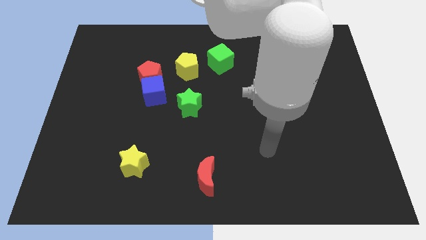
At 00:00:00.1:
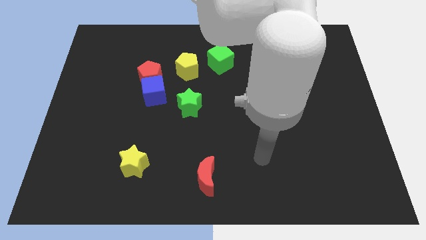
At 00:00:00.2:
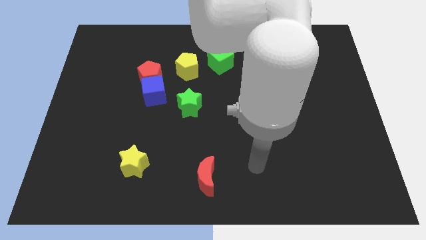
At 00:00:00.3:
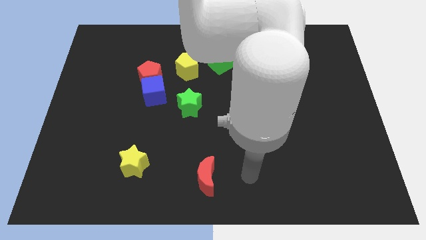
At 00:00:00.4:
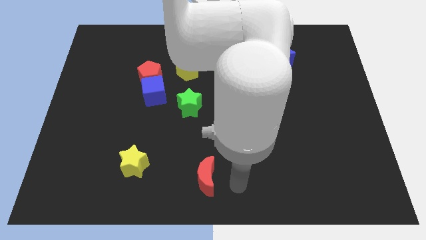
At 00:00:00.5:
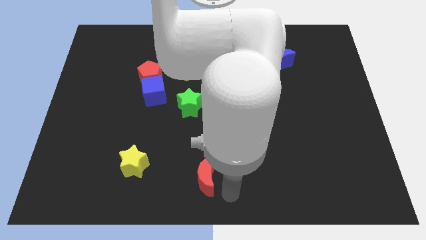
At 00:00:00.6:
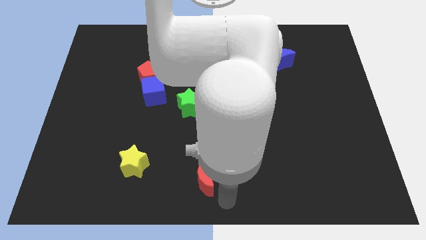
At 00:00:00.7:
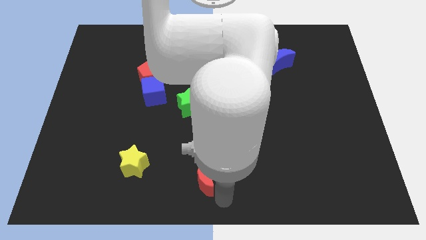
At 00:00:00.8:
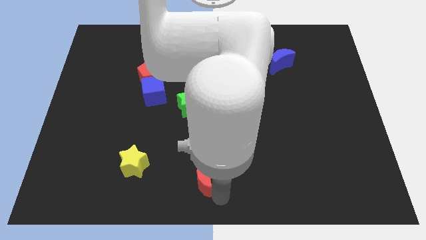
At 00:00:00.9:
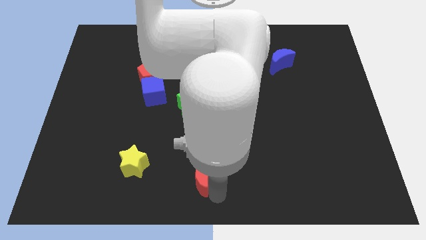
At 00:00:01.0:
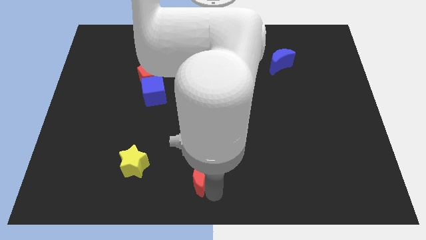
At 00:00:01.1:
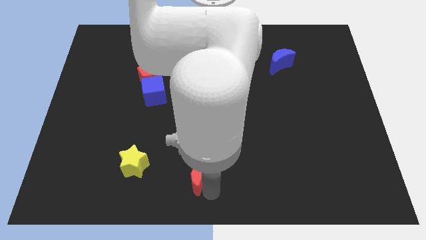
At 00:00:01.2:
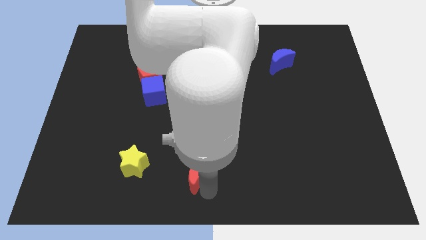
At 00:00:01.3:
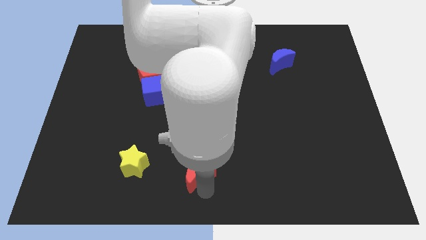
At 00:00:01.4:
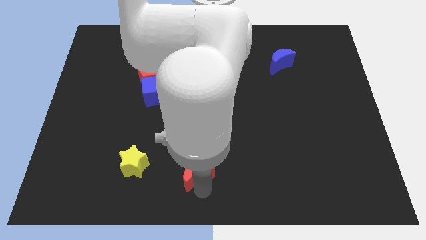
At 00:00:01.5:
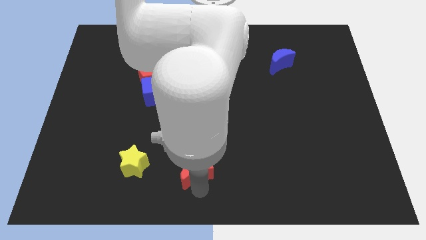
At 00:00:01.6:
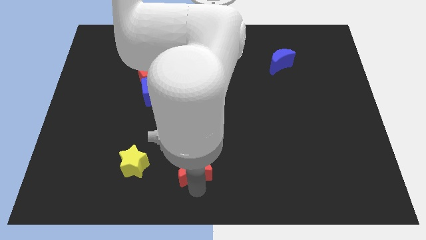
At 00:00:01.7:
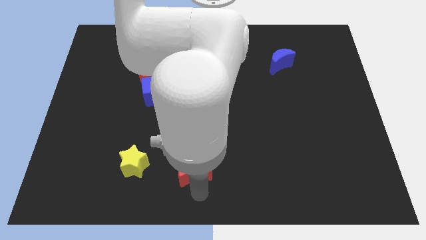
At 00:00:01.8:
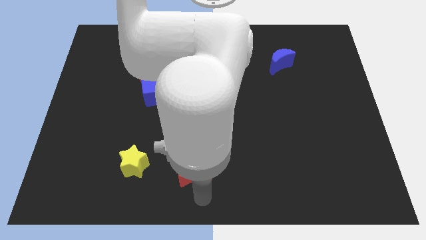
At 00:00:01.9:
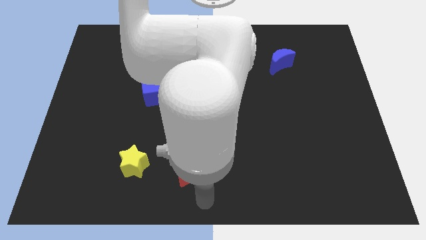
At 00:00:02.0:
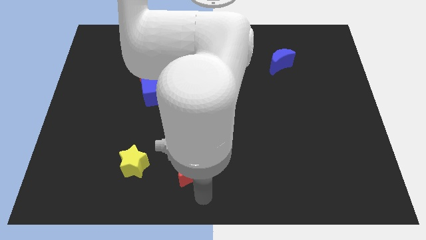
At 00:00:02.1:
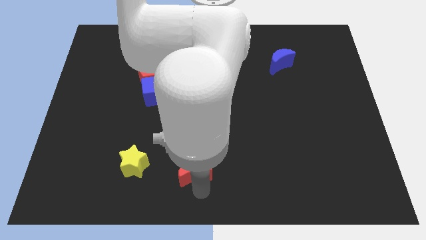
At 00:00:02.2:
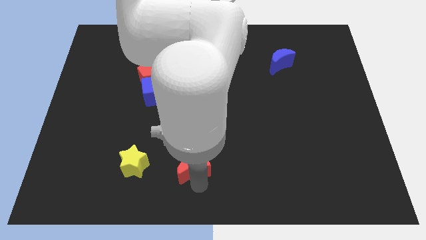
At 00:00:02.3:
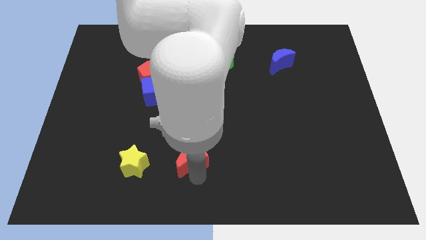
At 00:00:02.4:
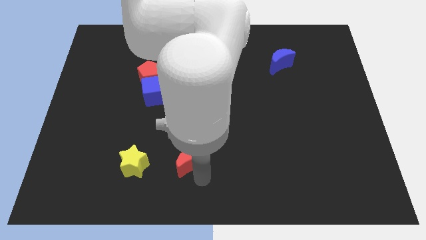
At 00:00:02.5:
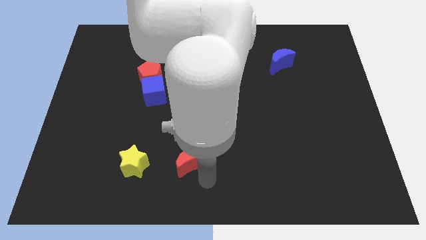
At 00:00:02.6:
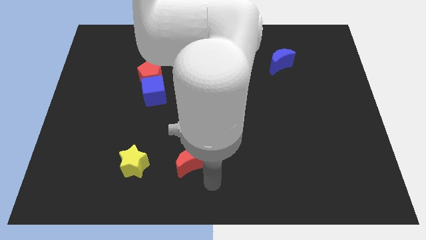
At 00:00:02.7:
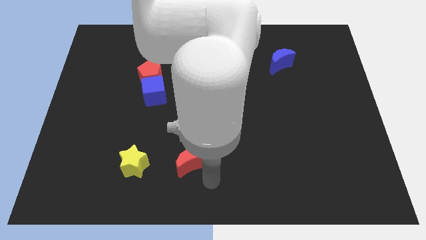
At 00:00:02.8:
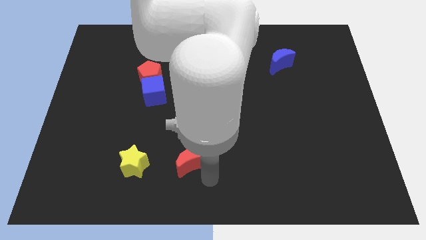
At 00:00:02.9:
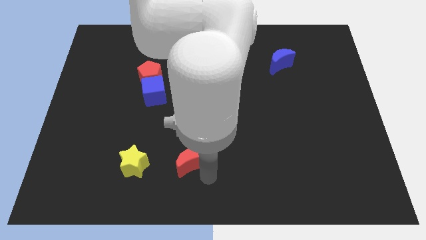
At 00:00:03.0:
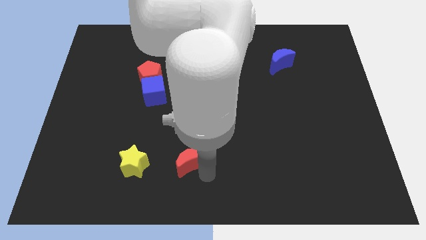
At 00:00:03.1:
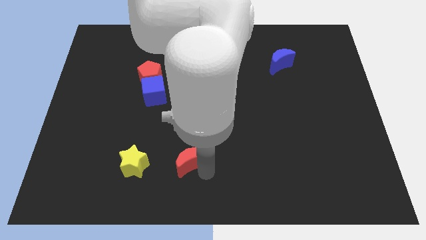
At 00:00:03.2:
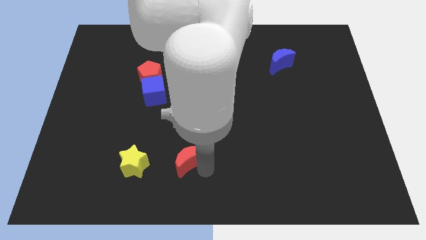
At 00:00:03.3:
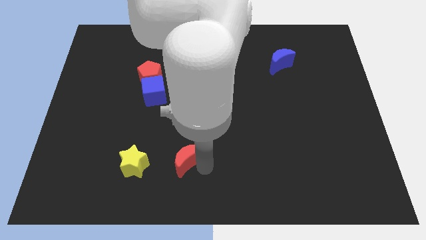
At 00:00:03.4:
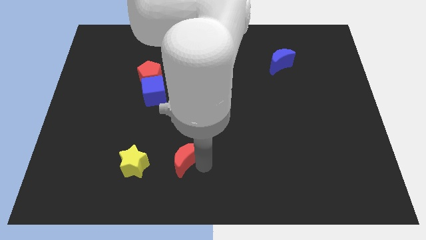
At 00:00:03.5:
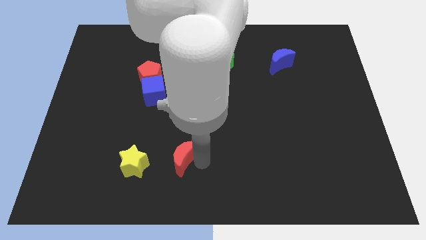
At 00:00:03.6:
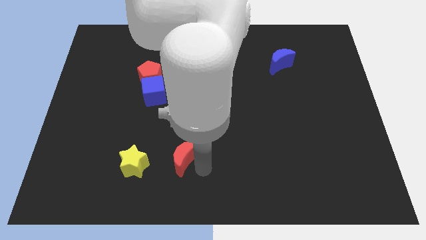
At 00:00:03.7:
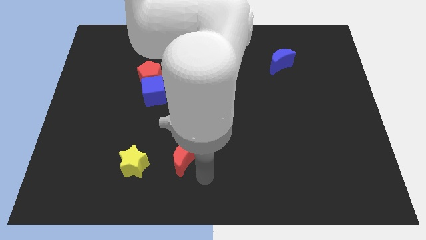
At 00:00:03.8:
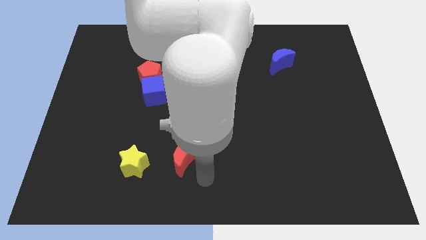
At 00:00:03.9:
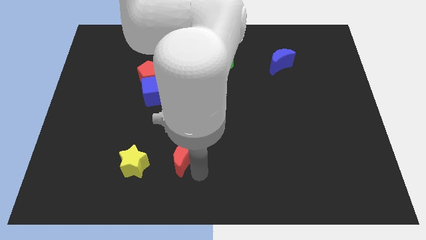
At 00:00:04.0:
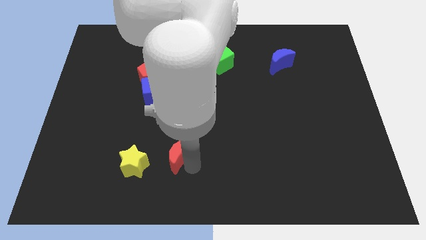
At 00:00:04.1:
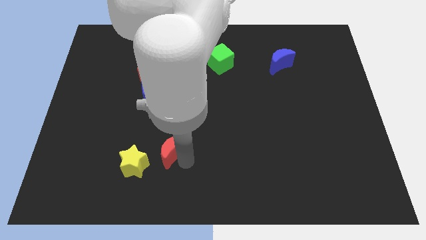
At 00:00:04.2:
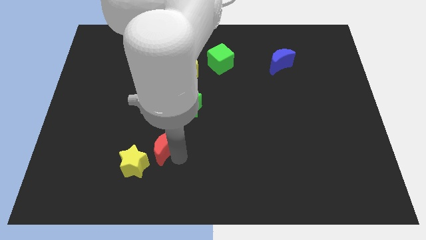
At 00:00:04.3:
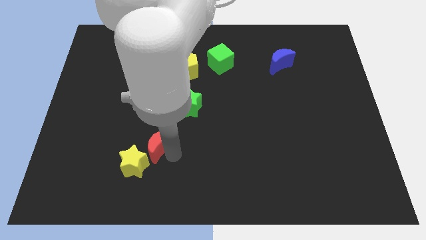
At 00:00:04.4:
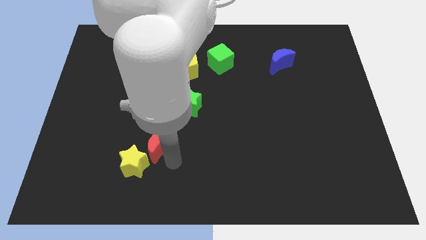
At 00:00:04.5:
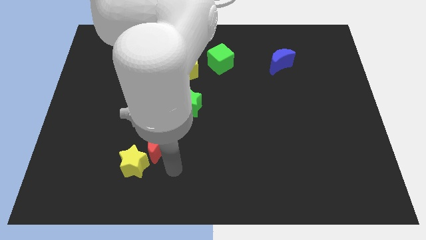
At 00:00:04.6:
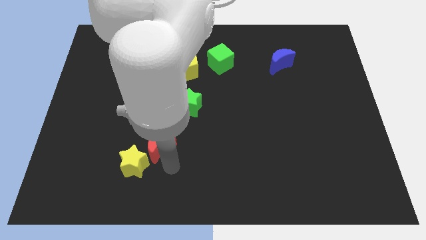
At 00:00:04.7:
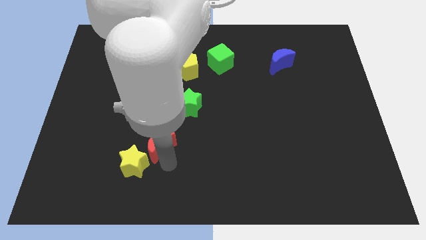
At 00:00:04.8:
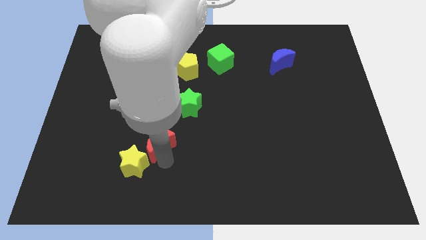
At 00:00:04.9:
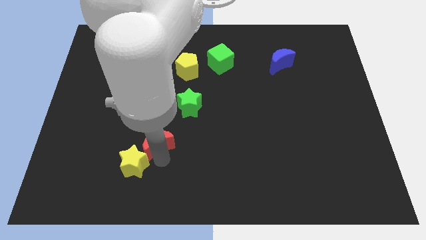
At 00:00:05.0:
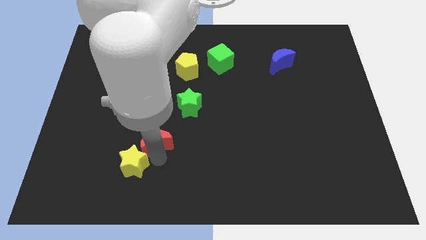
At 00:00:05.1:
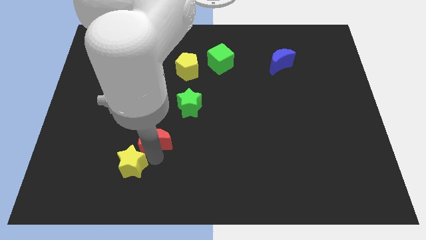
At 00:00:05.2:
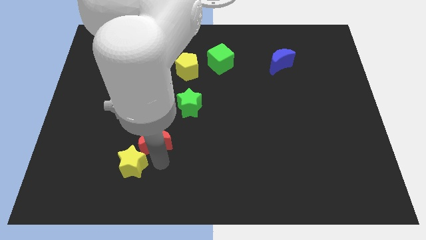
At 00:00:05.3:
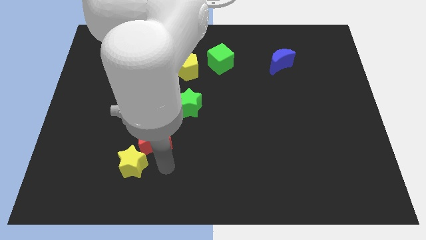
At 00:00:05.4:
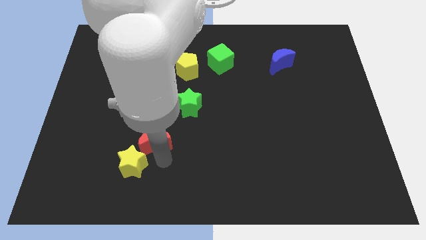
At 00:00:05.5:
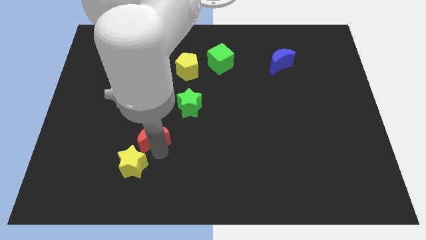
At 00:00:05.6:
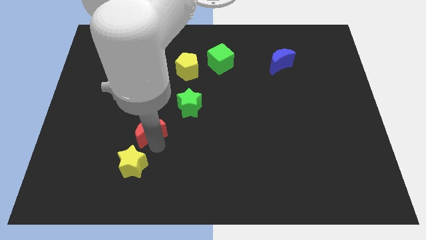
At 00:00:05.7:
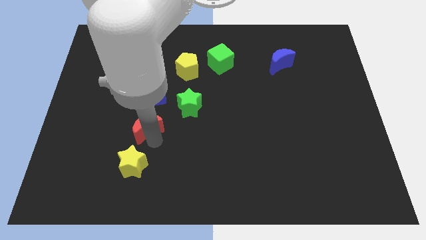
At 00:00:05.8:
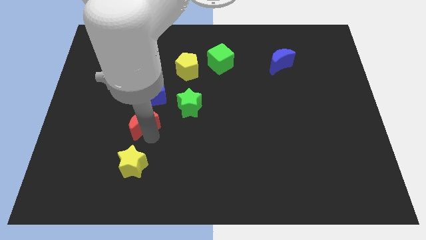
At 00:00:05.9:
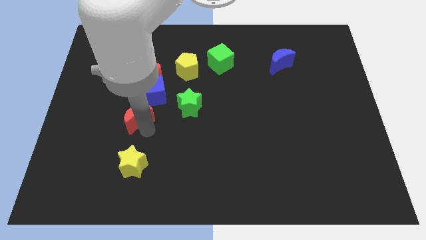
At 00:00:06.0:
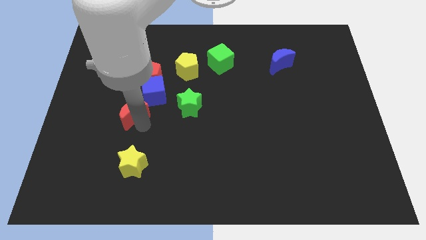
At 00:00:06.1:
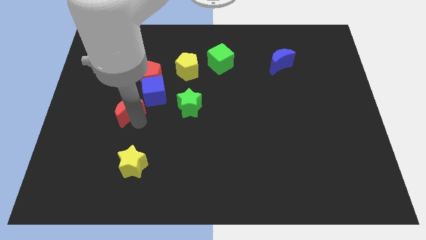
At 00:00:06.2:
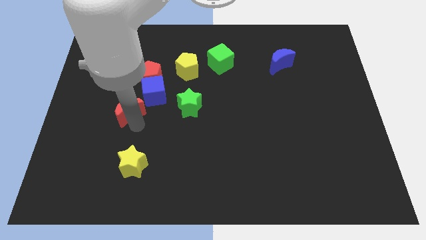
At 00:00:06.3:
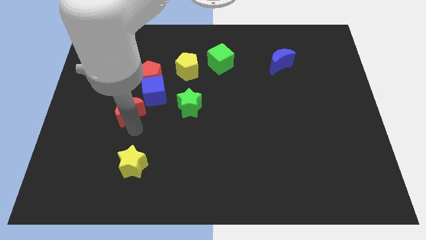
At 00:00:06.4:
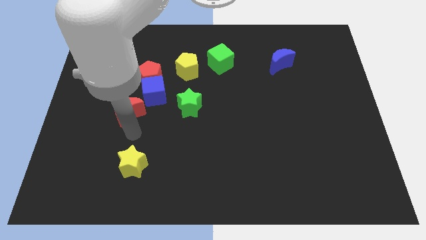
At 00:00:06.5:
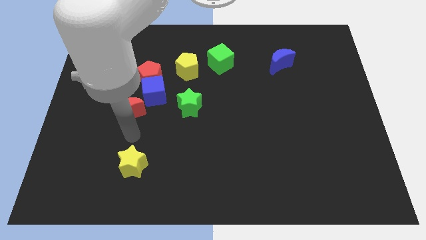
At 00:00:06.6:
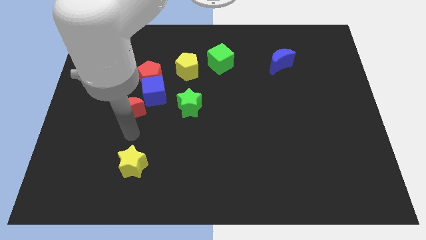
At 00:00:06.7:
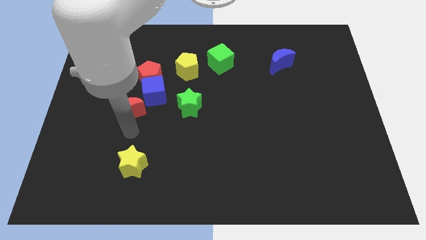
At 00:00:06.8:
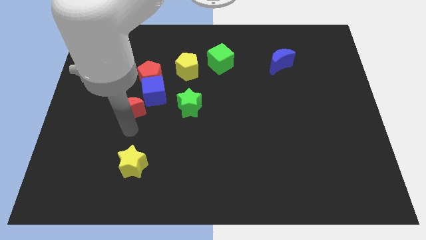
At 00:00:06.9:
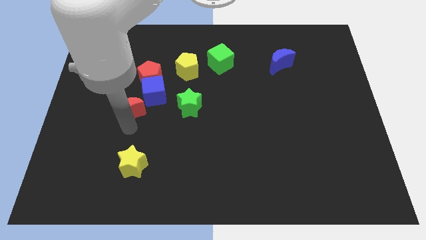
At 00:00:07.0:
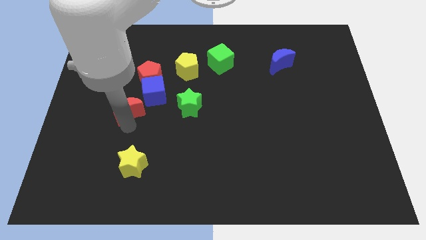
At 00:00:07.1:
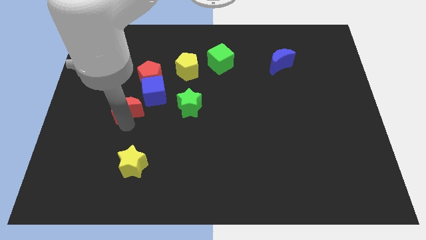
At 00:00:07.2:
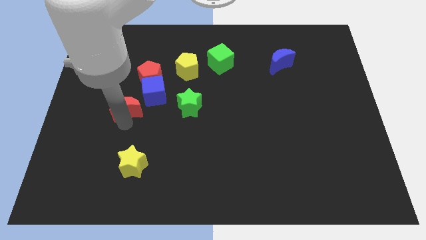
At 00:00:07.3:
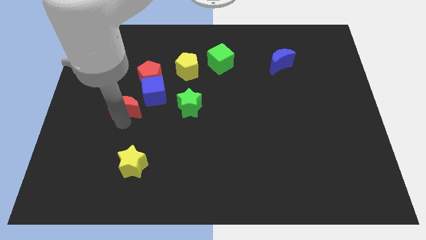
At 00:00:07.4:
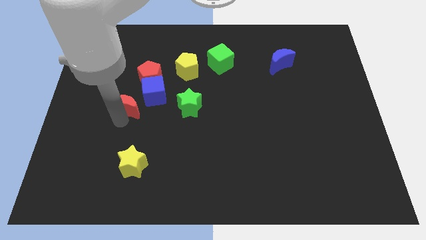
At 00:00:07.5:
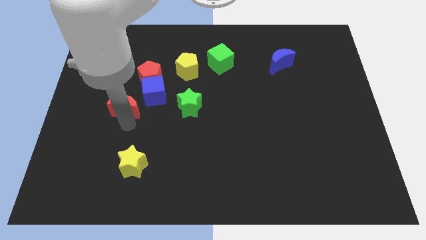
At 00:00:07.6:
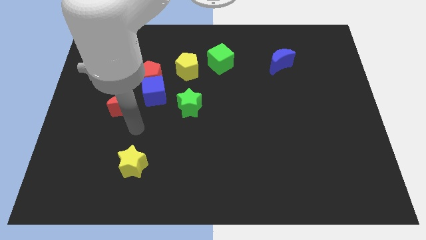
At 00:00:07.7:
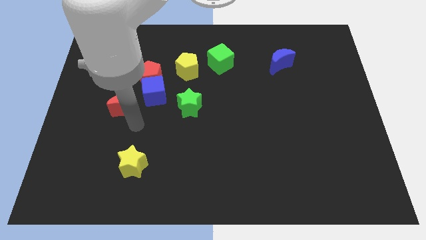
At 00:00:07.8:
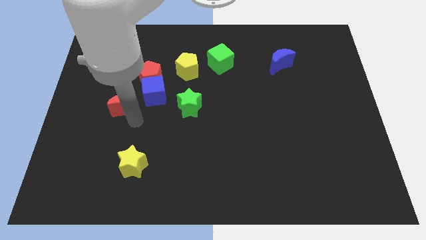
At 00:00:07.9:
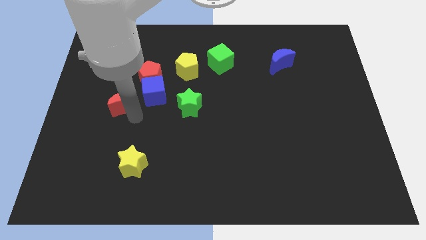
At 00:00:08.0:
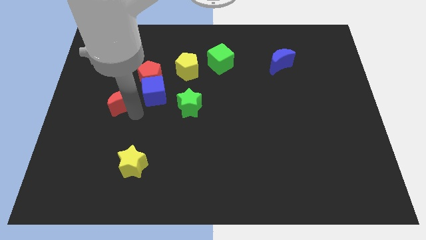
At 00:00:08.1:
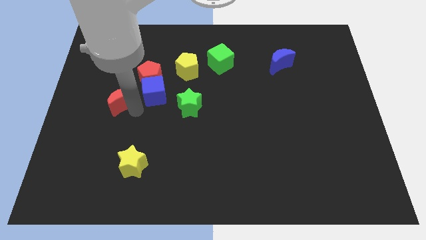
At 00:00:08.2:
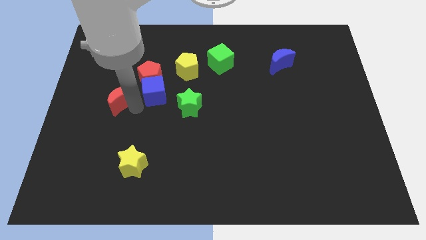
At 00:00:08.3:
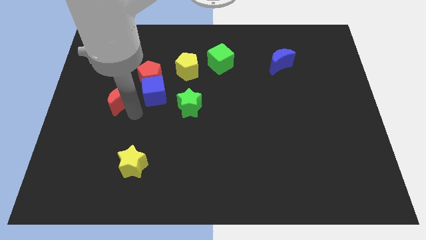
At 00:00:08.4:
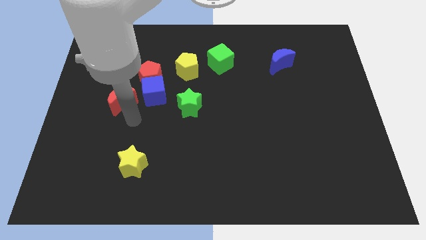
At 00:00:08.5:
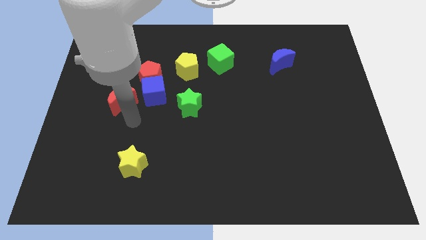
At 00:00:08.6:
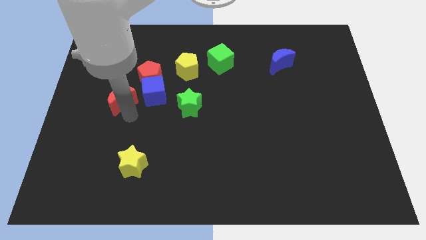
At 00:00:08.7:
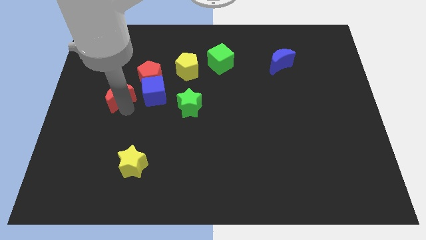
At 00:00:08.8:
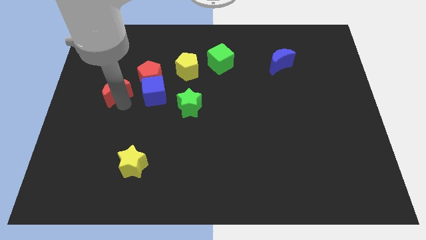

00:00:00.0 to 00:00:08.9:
slide the red moon left of the red pentagon
